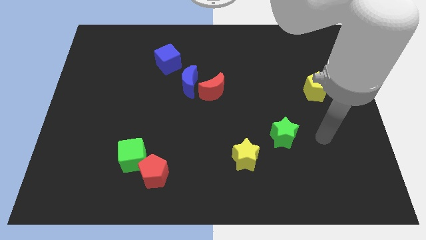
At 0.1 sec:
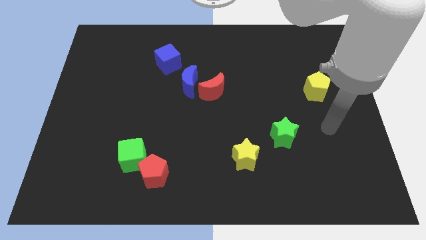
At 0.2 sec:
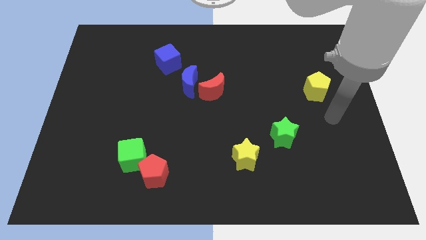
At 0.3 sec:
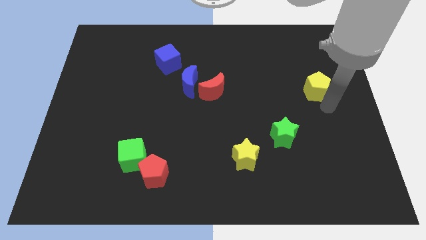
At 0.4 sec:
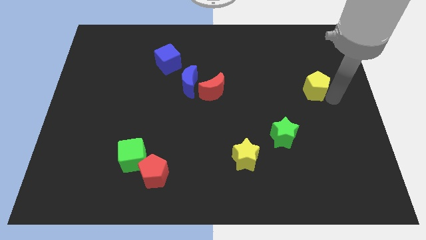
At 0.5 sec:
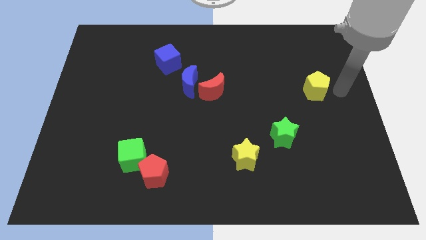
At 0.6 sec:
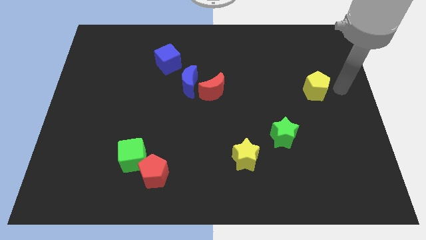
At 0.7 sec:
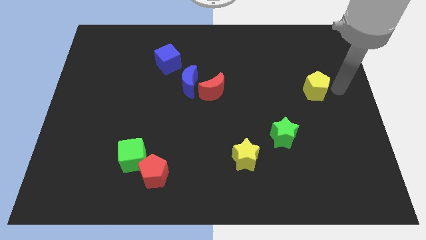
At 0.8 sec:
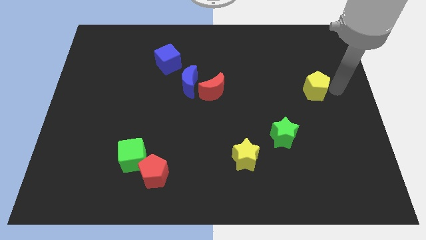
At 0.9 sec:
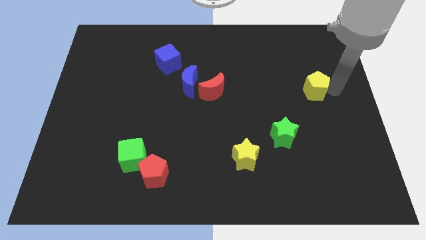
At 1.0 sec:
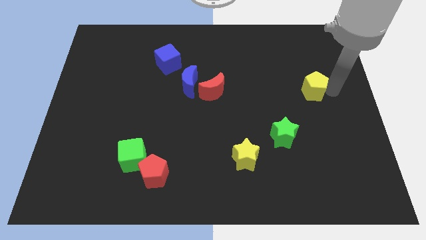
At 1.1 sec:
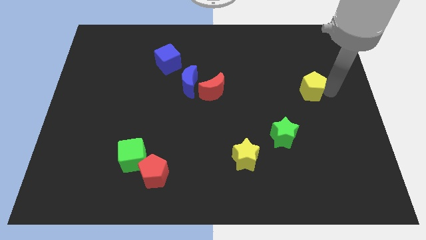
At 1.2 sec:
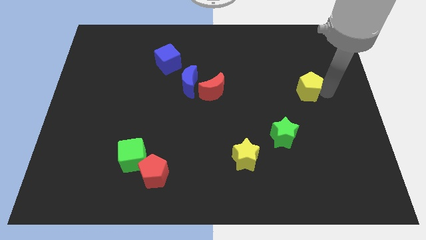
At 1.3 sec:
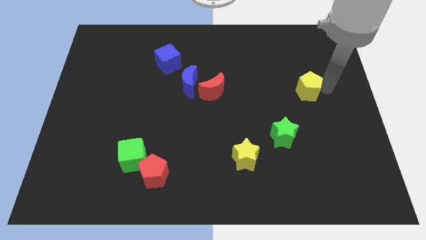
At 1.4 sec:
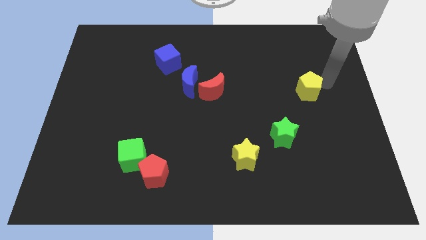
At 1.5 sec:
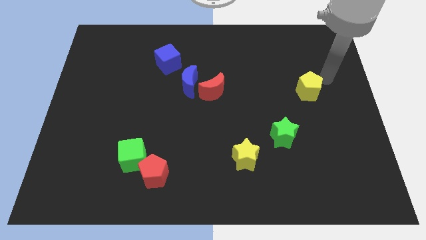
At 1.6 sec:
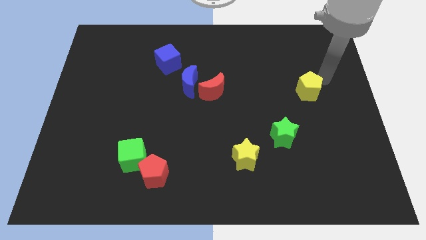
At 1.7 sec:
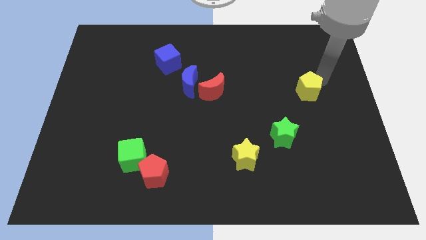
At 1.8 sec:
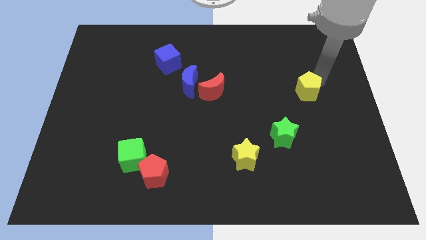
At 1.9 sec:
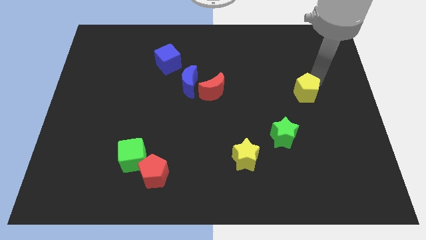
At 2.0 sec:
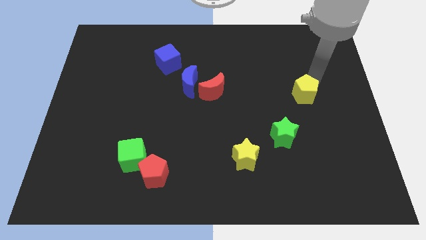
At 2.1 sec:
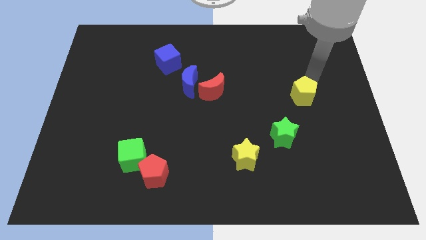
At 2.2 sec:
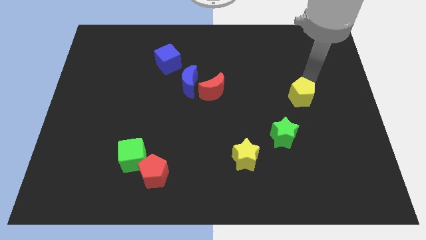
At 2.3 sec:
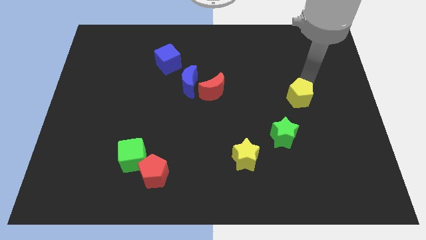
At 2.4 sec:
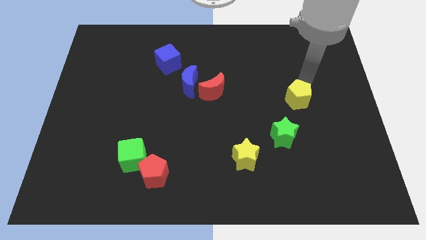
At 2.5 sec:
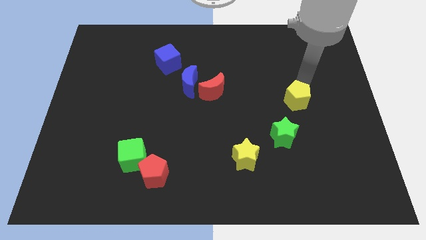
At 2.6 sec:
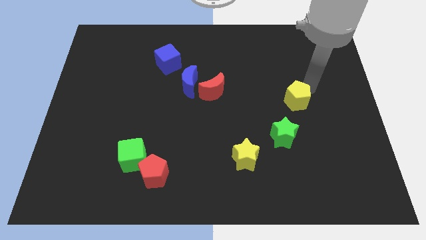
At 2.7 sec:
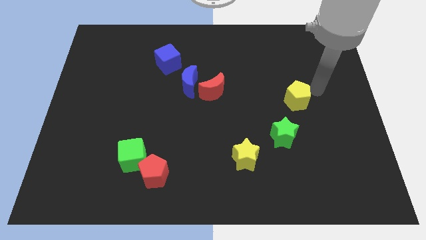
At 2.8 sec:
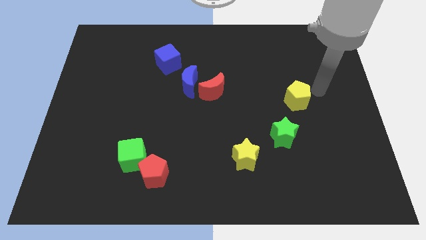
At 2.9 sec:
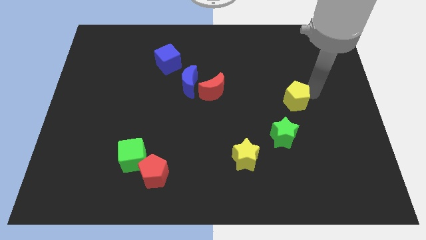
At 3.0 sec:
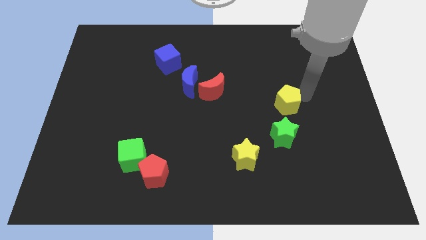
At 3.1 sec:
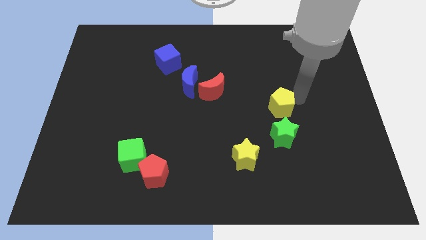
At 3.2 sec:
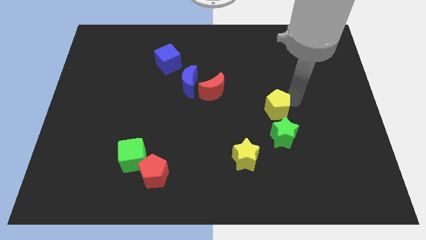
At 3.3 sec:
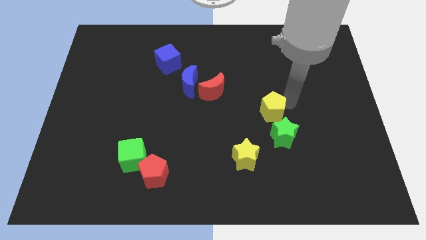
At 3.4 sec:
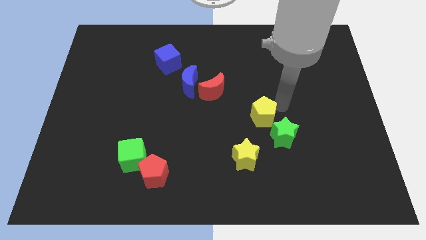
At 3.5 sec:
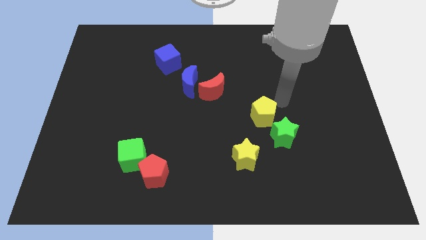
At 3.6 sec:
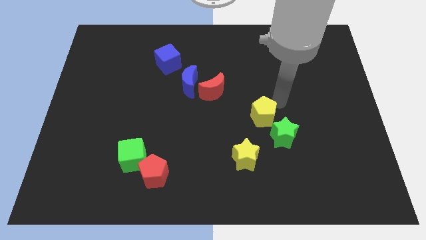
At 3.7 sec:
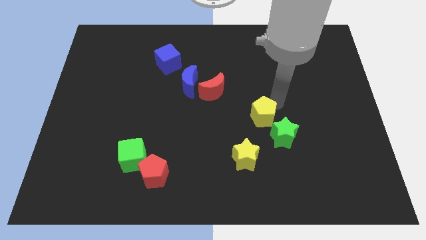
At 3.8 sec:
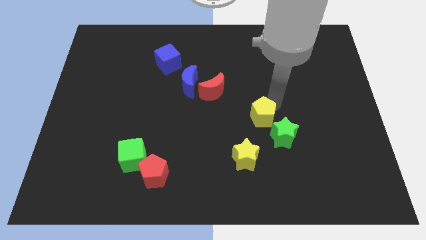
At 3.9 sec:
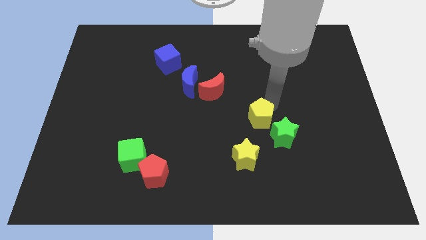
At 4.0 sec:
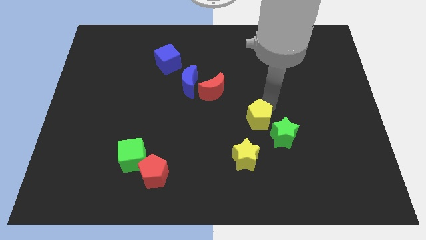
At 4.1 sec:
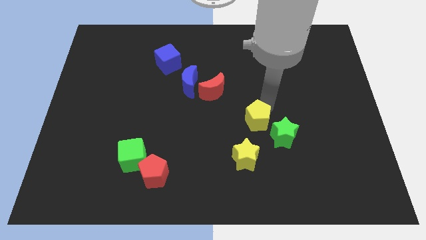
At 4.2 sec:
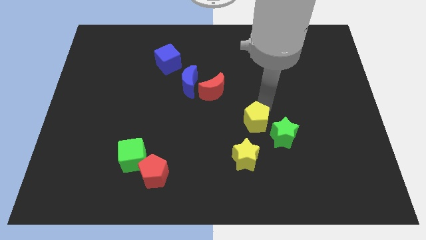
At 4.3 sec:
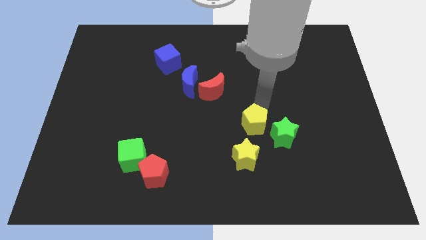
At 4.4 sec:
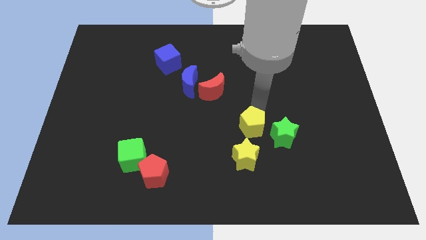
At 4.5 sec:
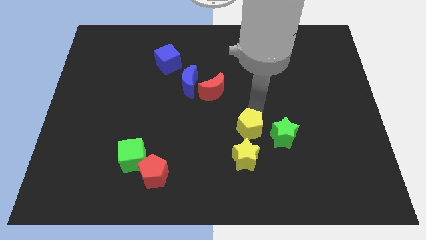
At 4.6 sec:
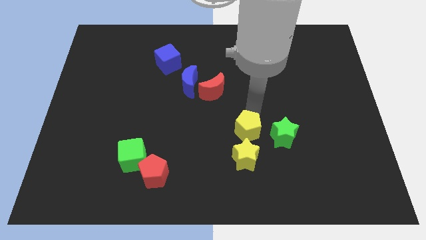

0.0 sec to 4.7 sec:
push the yellow pentagon downwards and then left

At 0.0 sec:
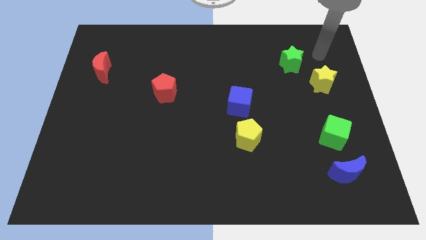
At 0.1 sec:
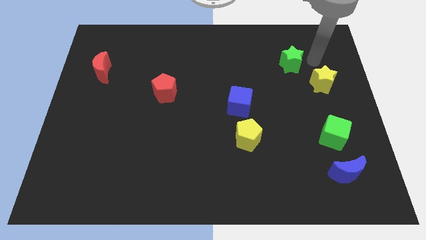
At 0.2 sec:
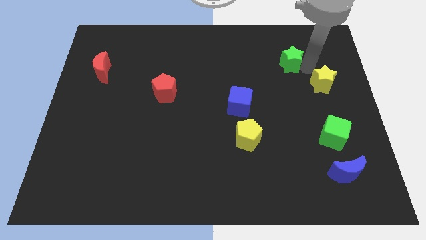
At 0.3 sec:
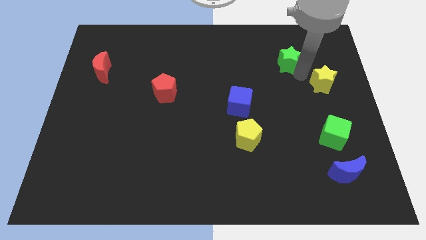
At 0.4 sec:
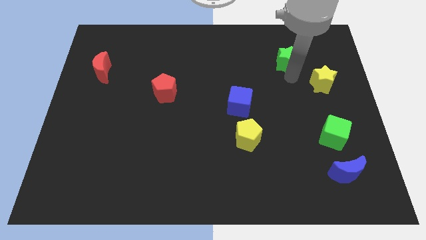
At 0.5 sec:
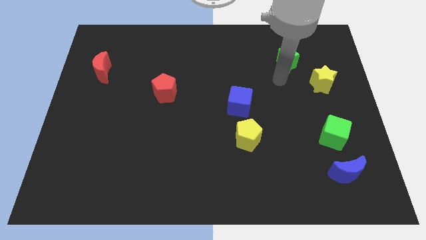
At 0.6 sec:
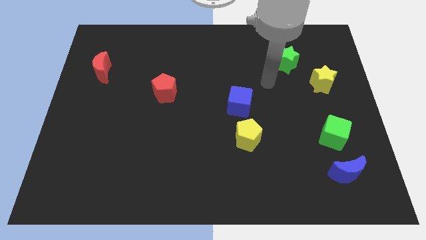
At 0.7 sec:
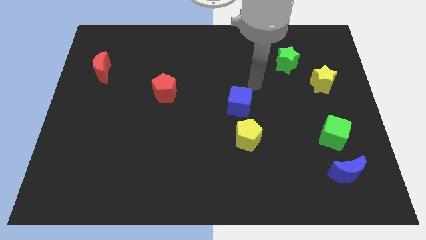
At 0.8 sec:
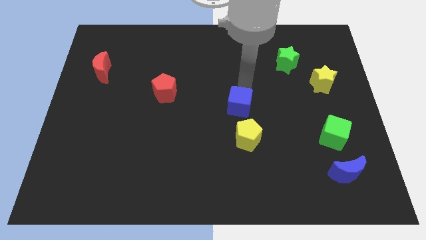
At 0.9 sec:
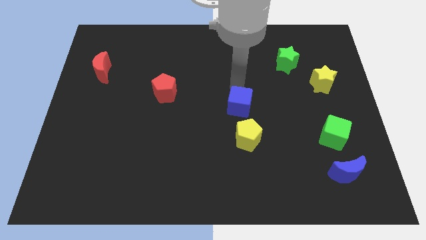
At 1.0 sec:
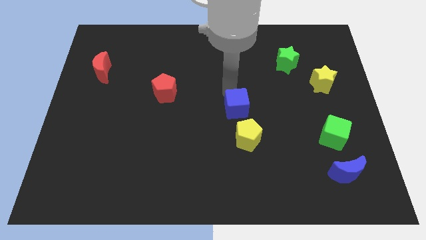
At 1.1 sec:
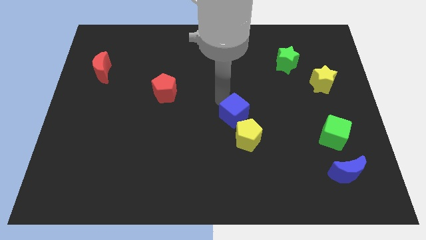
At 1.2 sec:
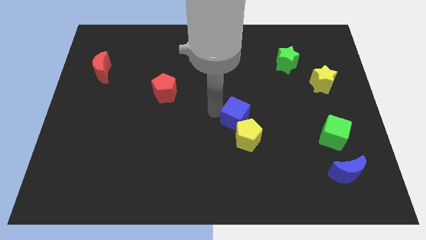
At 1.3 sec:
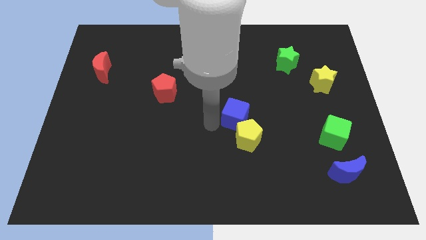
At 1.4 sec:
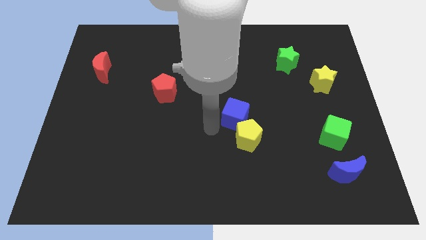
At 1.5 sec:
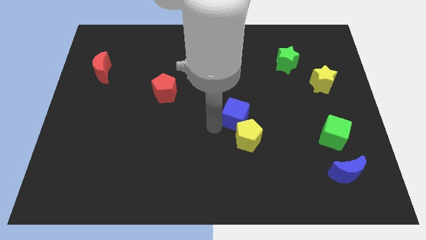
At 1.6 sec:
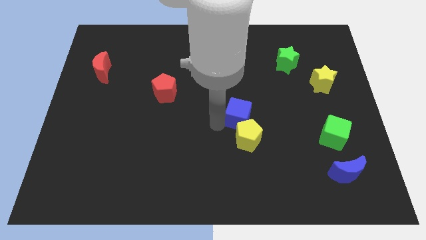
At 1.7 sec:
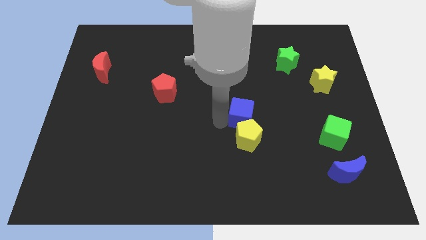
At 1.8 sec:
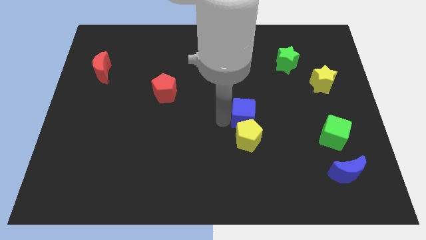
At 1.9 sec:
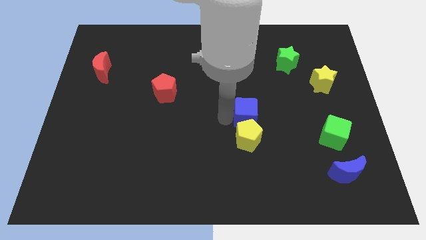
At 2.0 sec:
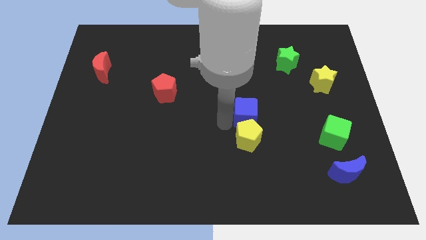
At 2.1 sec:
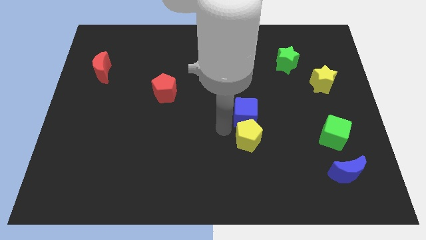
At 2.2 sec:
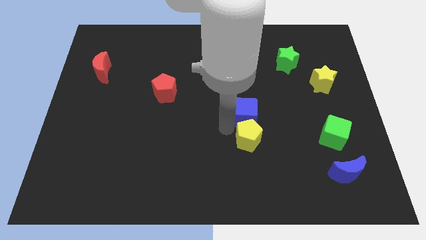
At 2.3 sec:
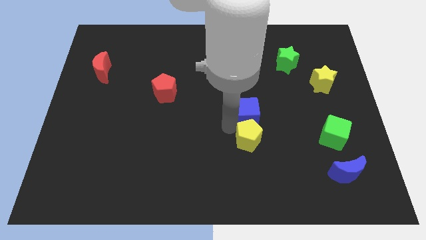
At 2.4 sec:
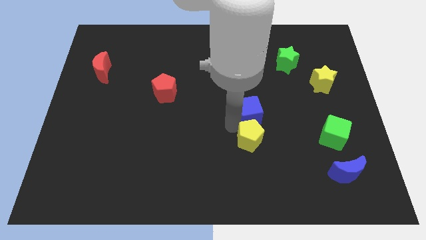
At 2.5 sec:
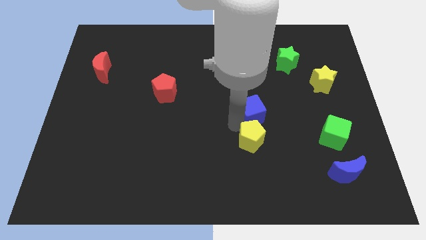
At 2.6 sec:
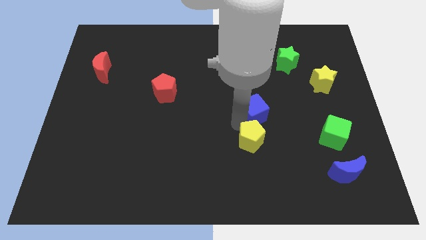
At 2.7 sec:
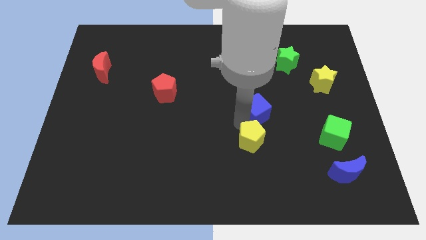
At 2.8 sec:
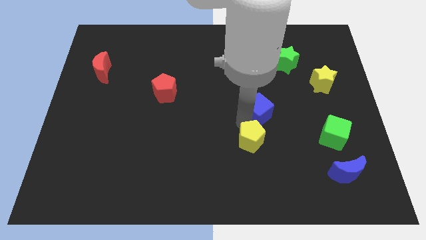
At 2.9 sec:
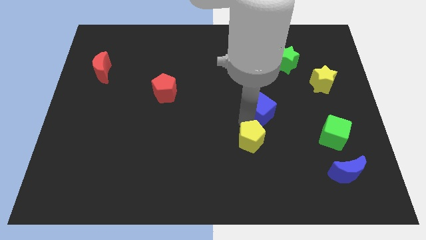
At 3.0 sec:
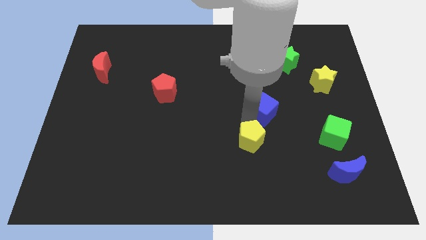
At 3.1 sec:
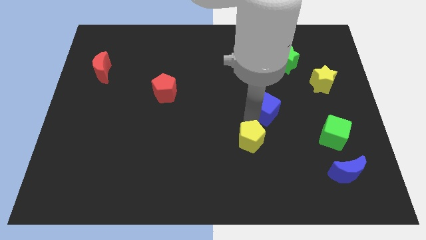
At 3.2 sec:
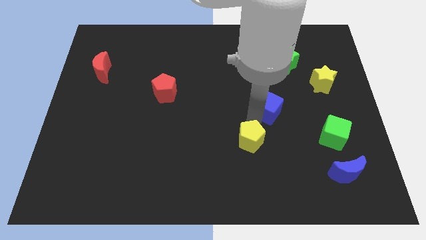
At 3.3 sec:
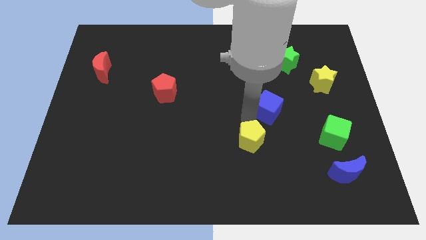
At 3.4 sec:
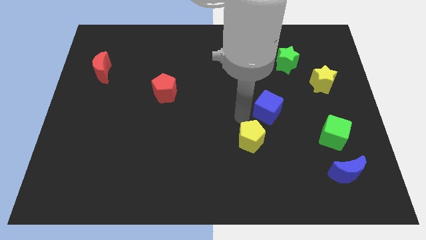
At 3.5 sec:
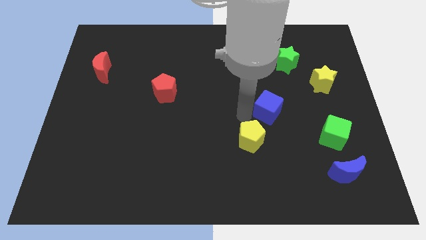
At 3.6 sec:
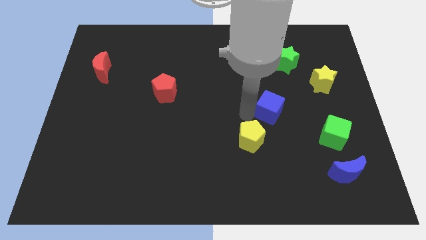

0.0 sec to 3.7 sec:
push the blue cube to the right somewhat
